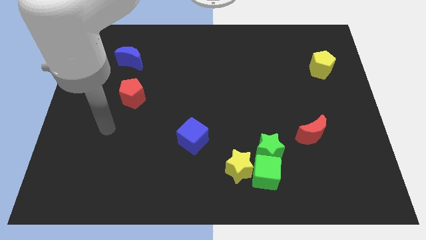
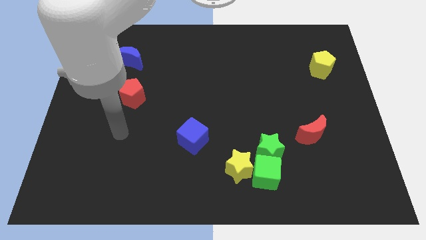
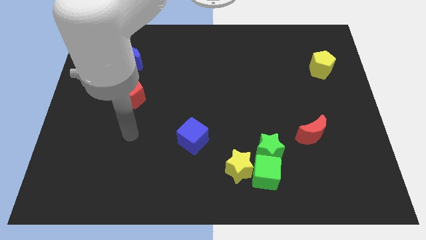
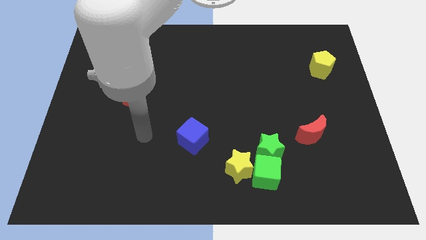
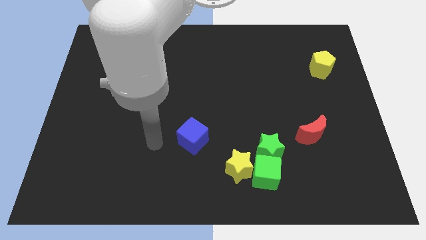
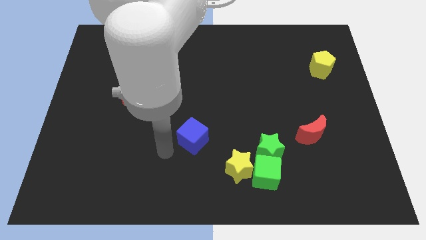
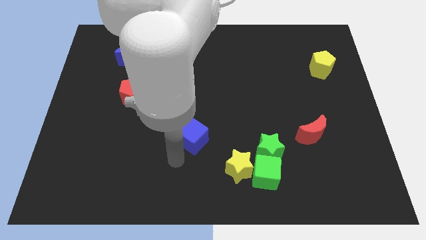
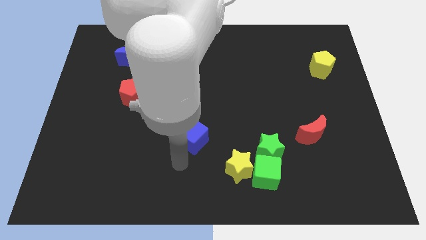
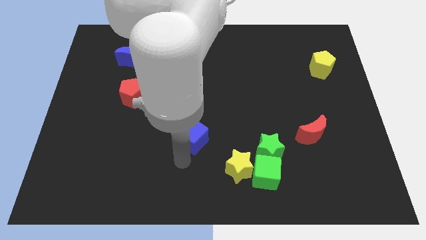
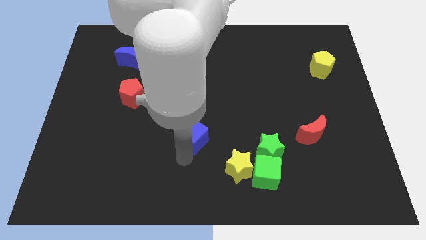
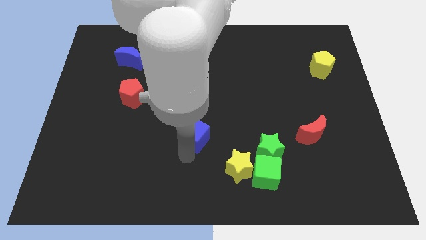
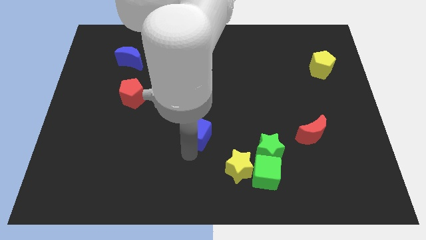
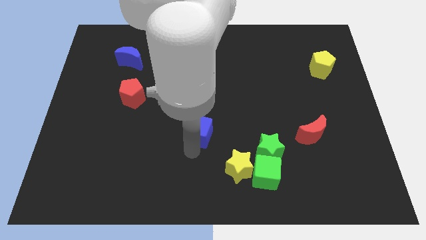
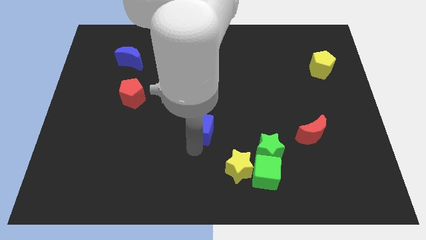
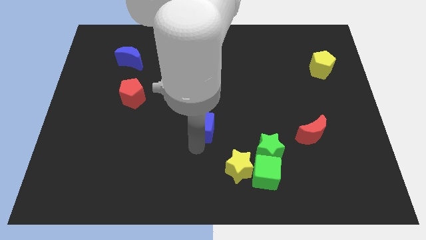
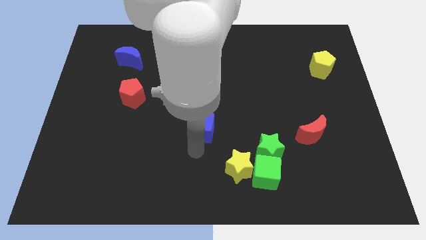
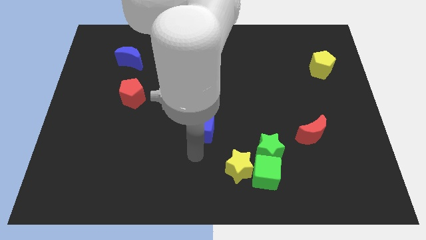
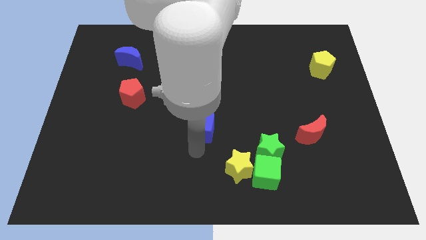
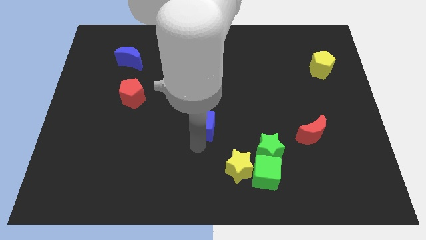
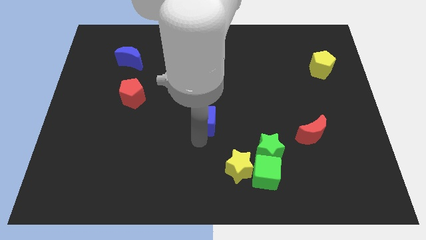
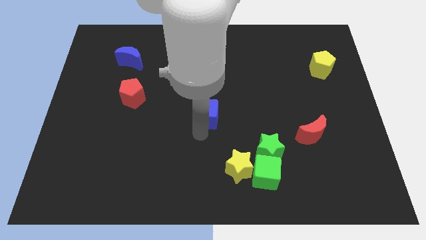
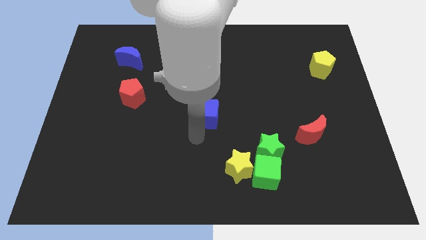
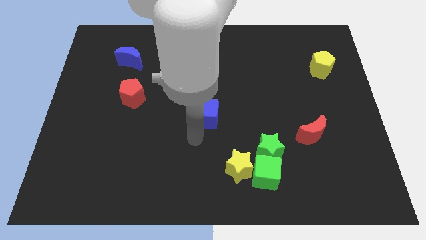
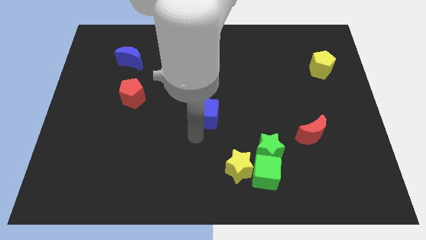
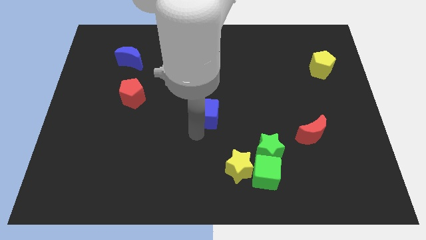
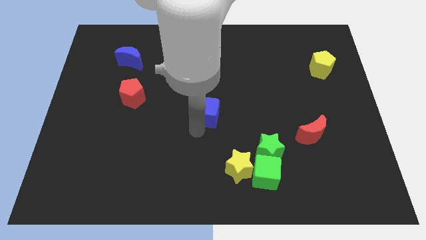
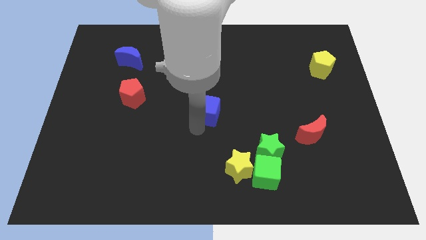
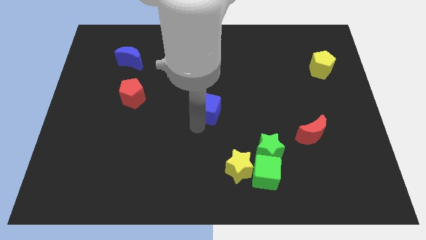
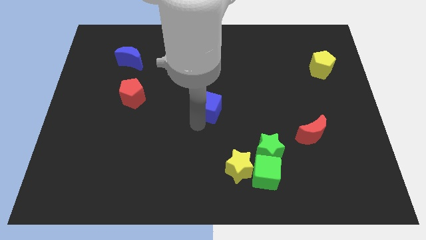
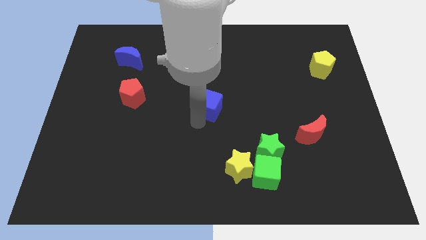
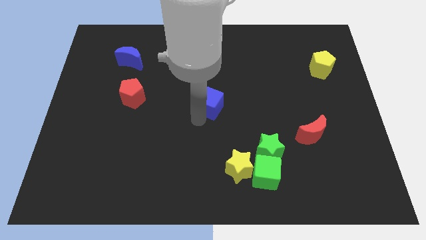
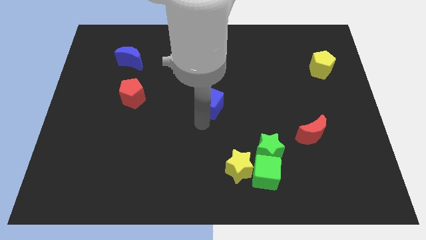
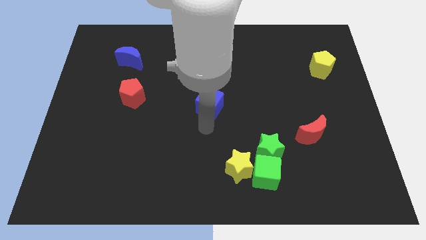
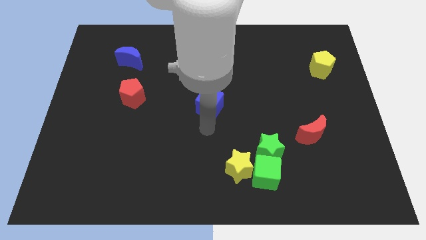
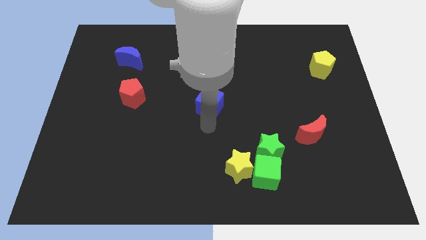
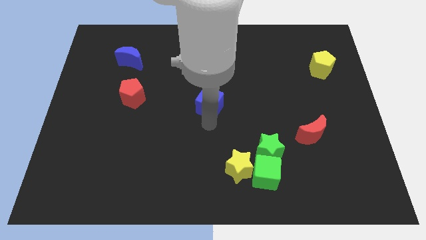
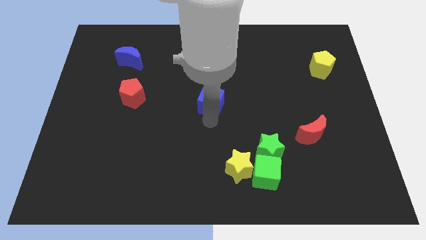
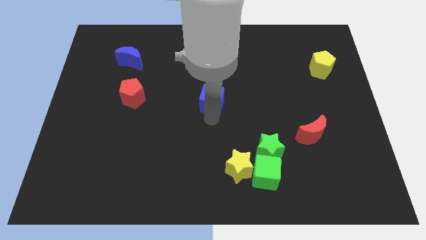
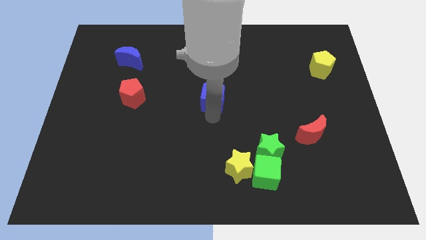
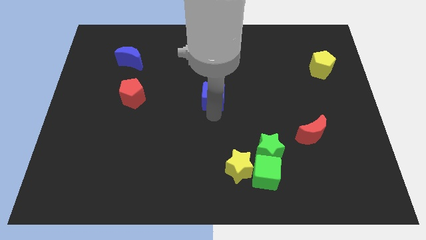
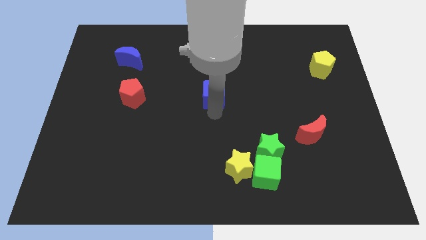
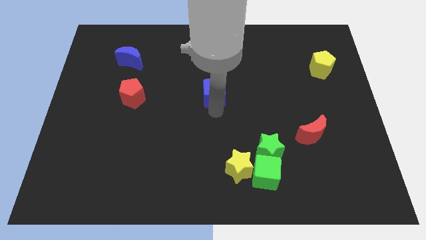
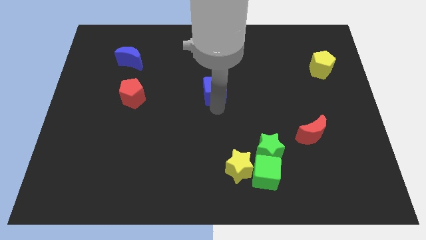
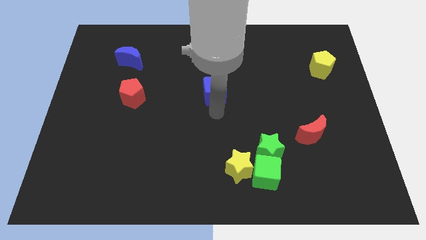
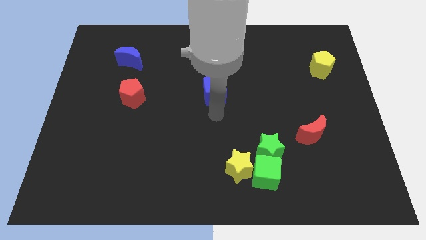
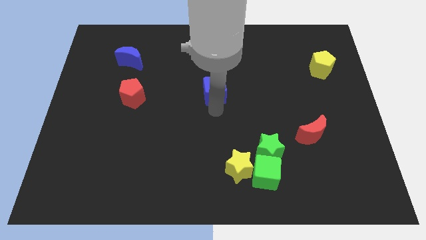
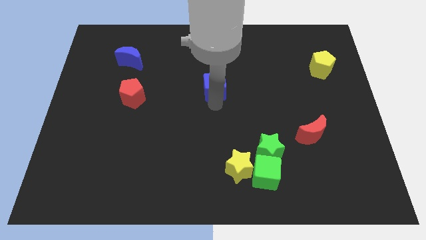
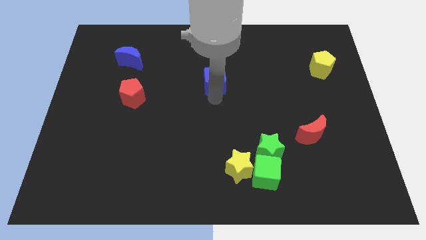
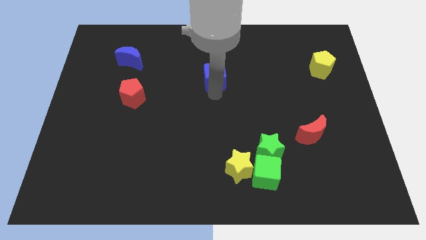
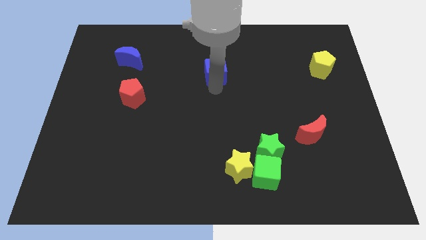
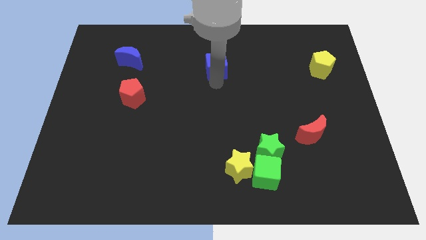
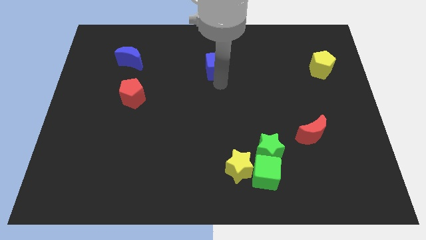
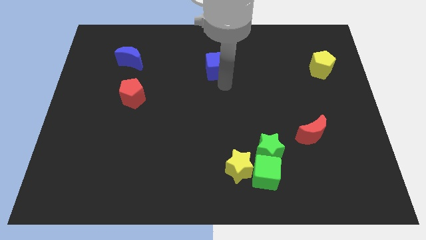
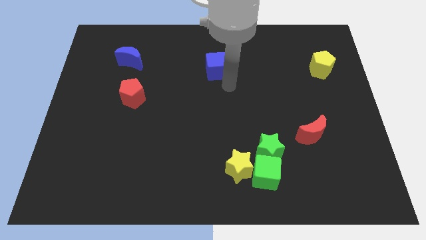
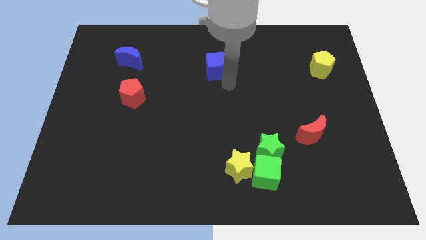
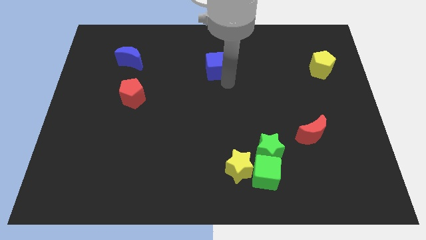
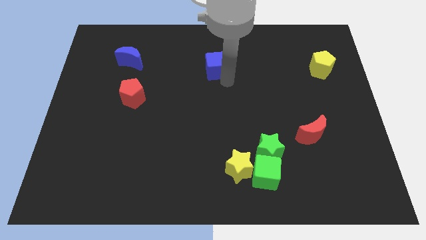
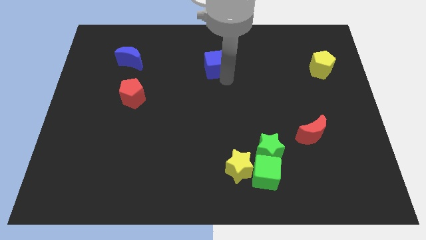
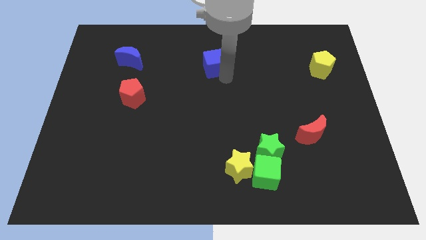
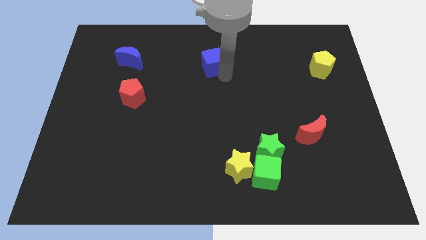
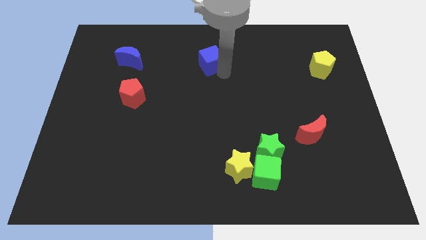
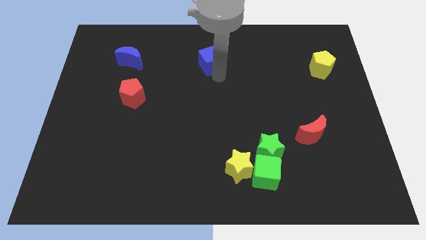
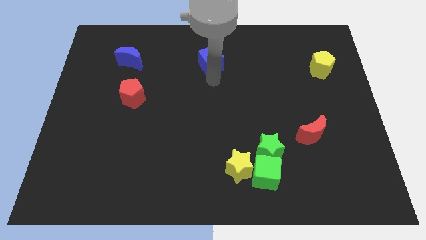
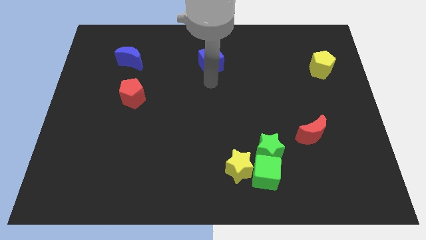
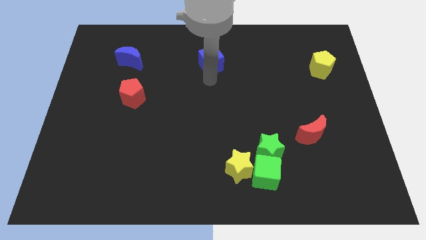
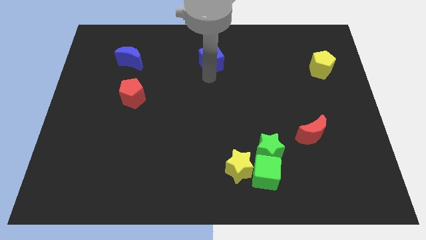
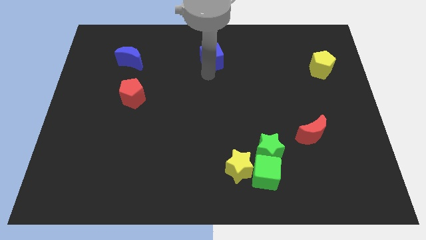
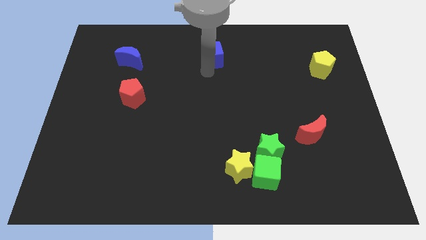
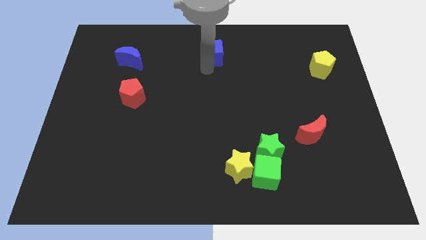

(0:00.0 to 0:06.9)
push the blue cube to the top side

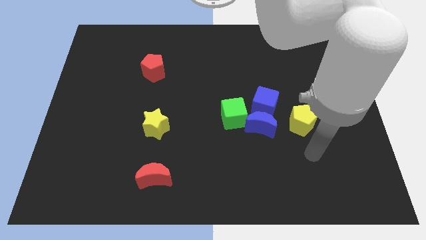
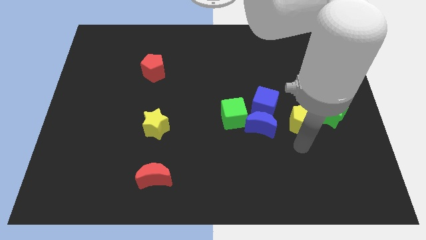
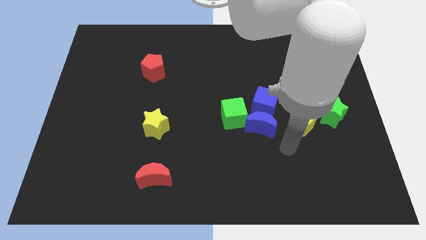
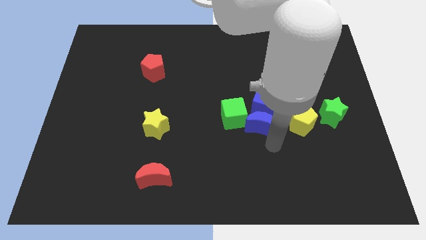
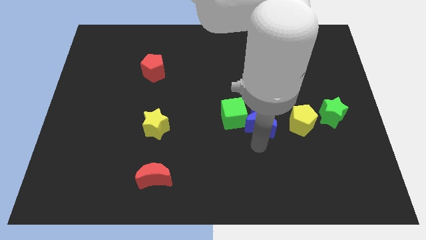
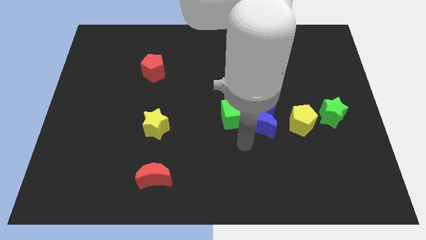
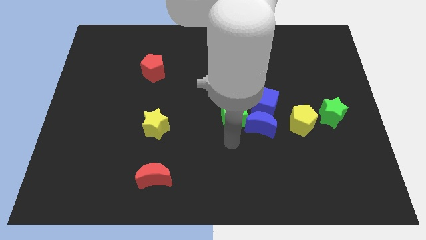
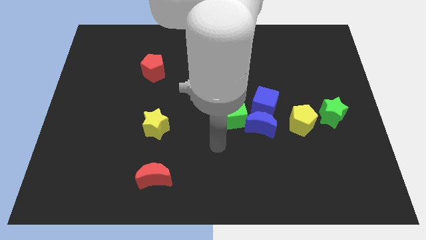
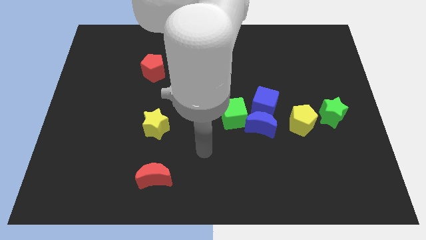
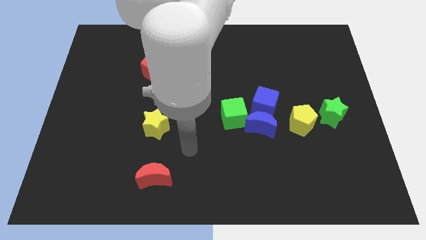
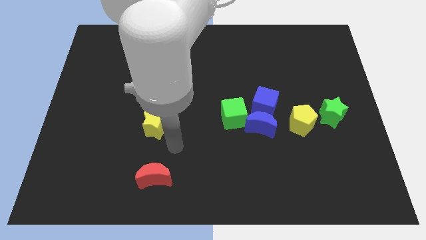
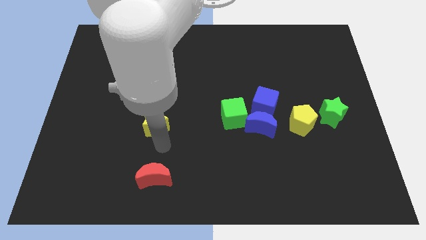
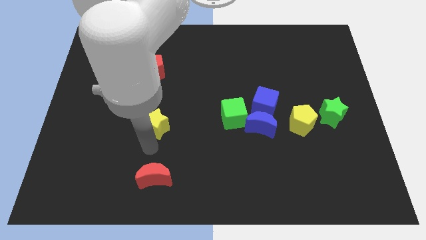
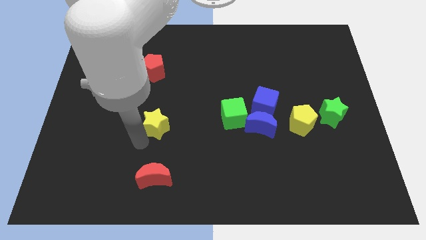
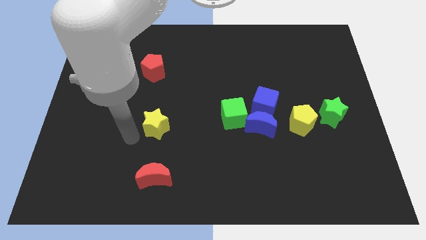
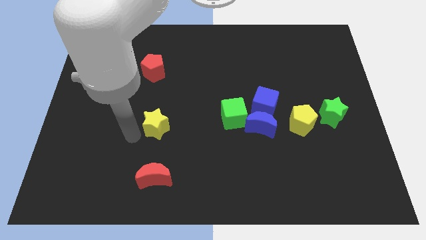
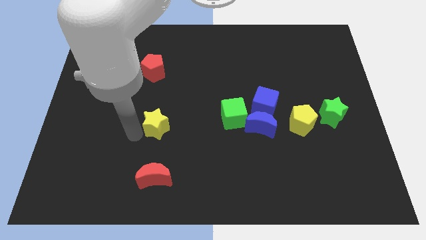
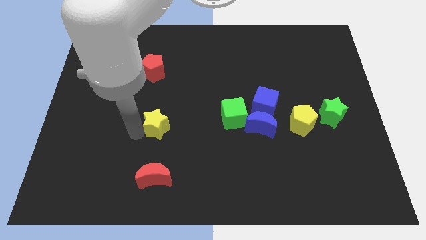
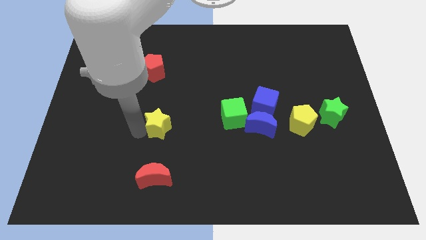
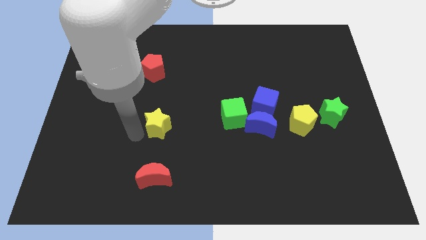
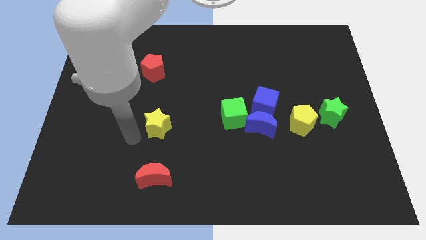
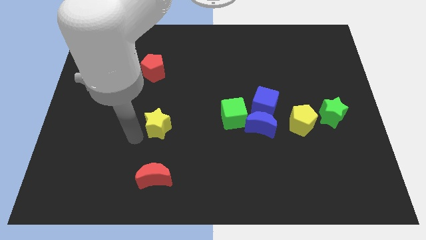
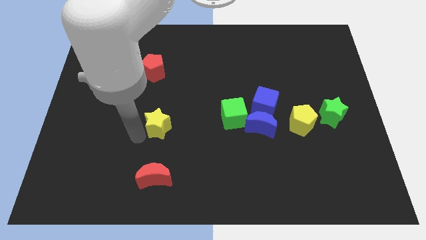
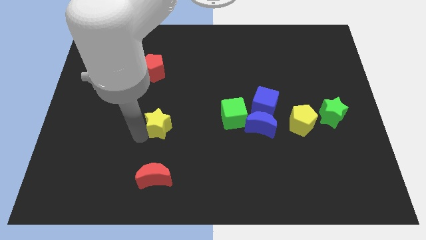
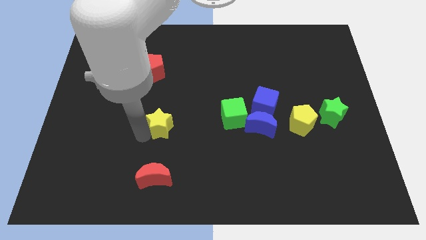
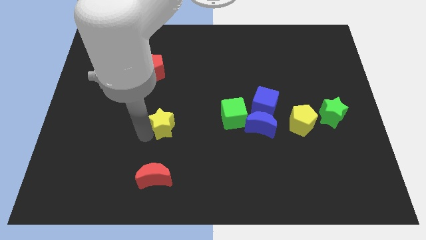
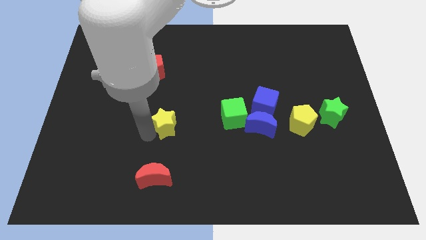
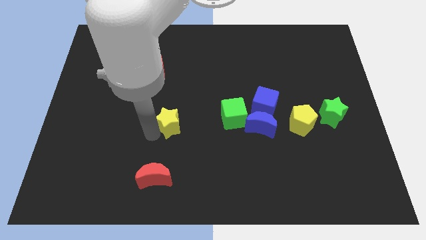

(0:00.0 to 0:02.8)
slide the yellow star to the middle of the board
